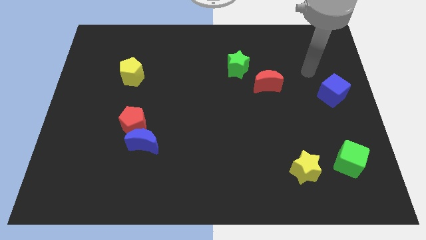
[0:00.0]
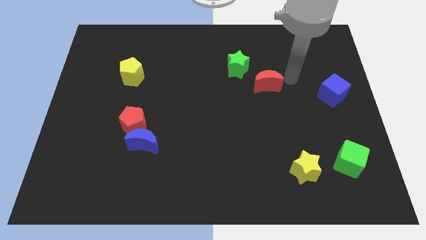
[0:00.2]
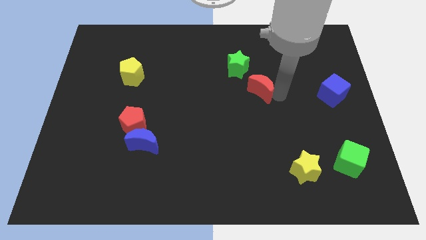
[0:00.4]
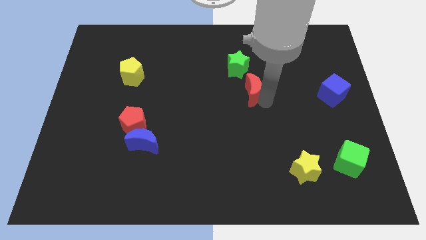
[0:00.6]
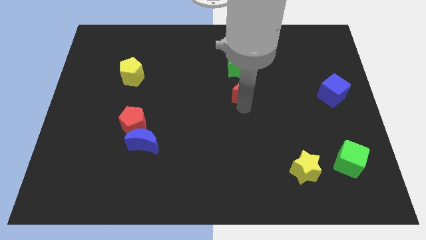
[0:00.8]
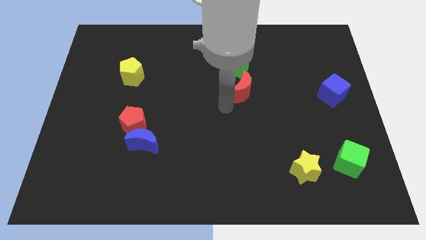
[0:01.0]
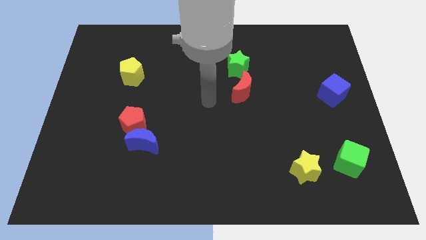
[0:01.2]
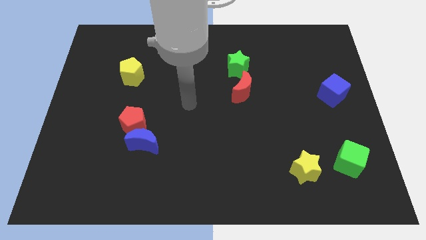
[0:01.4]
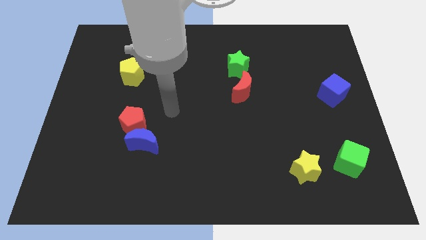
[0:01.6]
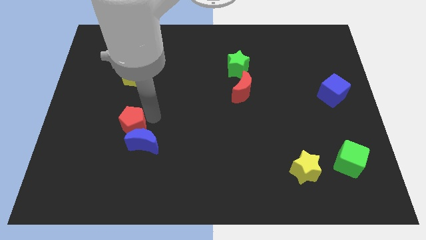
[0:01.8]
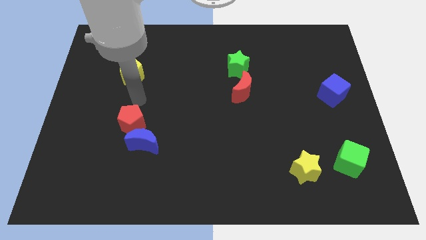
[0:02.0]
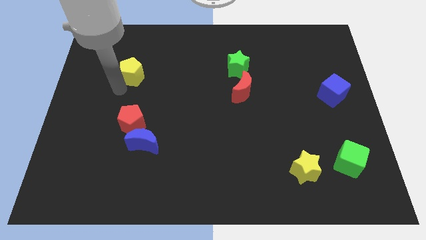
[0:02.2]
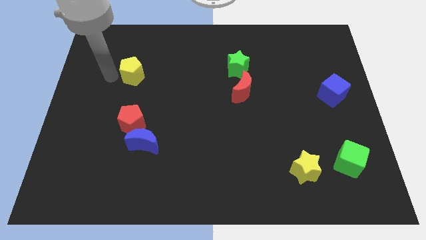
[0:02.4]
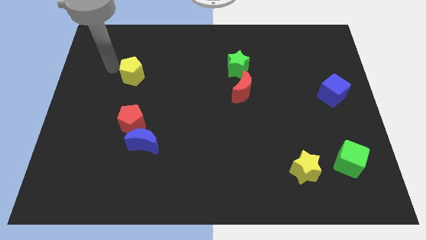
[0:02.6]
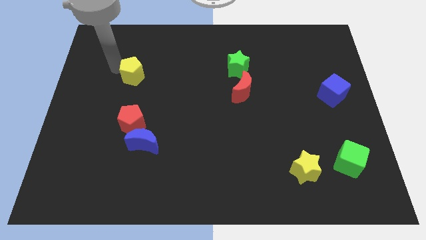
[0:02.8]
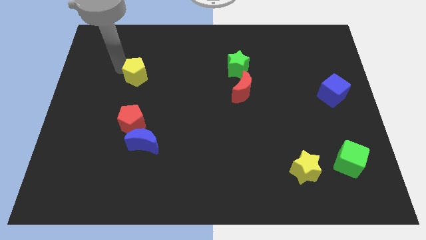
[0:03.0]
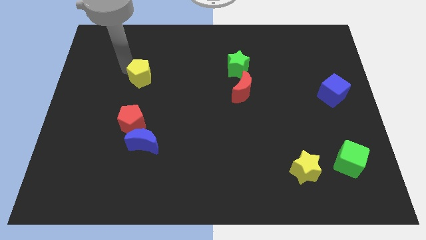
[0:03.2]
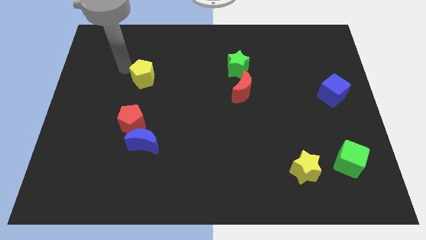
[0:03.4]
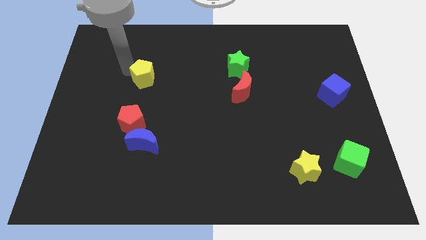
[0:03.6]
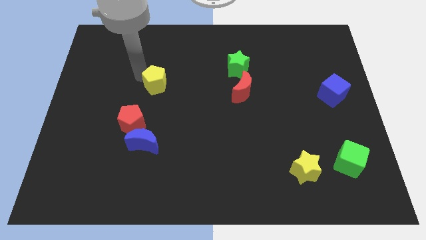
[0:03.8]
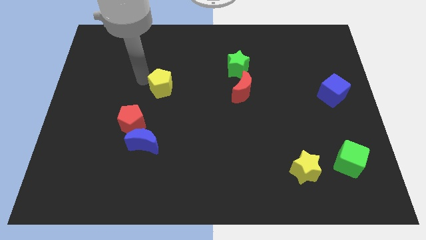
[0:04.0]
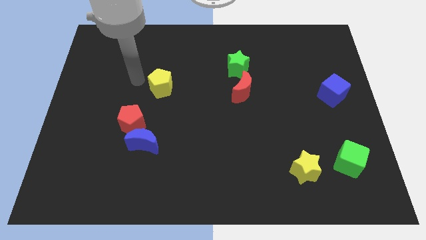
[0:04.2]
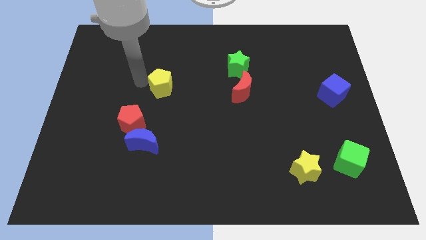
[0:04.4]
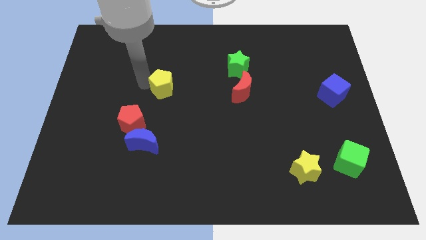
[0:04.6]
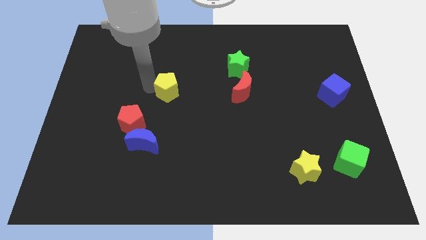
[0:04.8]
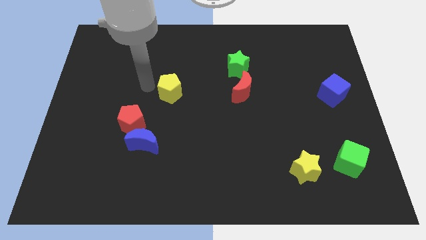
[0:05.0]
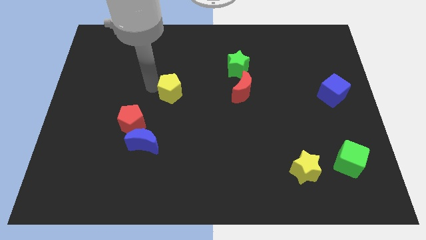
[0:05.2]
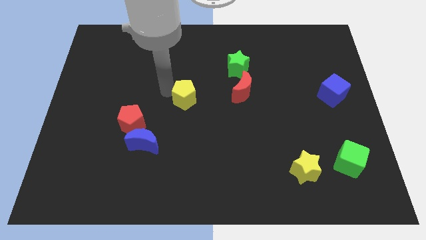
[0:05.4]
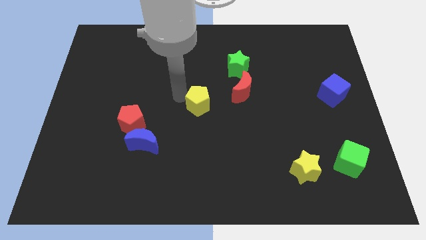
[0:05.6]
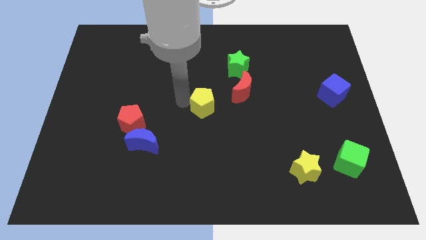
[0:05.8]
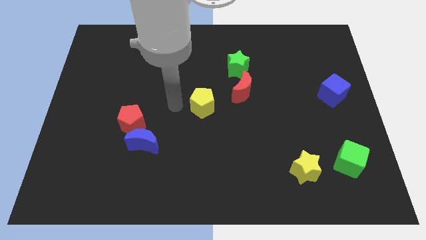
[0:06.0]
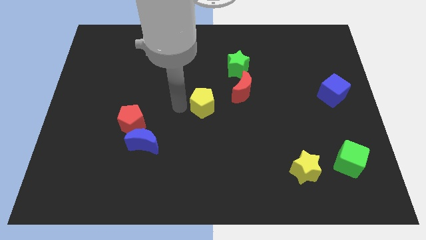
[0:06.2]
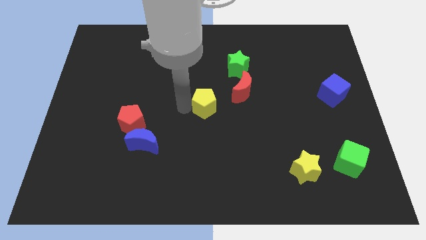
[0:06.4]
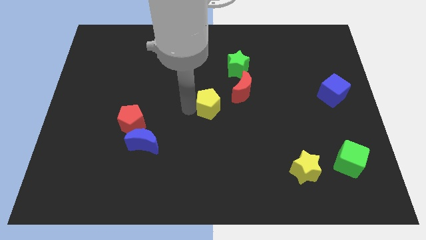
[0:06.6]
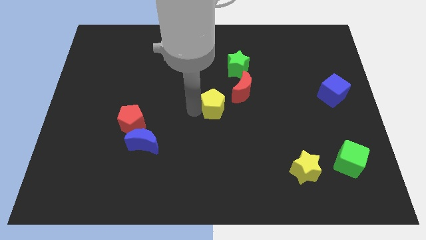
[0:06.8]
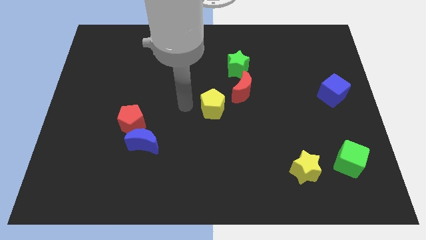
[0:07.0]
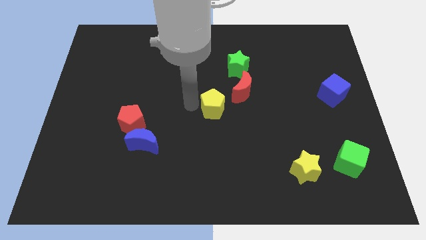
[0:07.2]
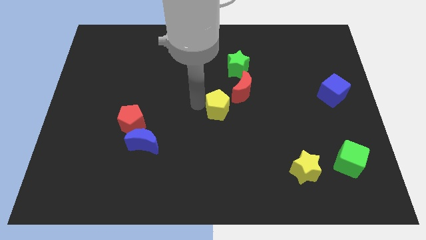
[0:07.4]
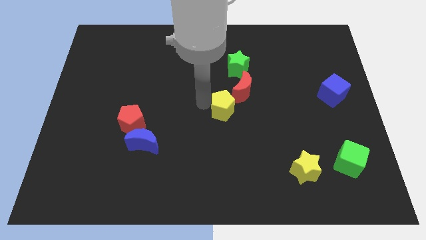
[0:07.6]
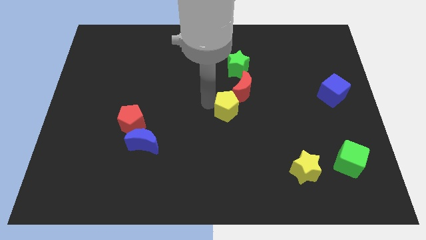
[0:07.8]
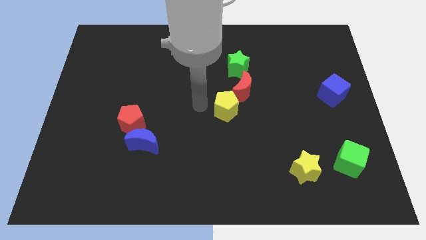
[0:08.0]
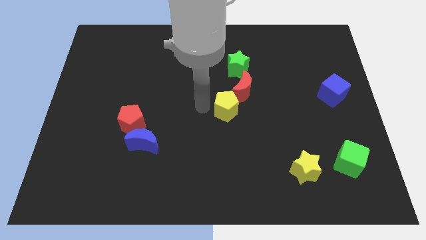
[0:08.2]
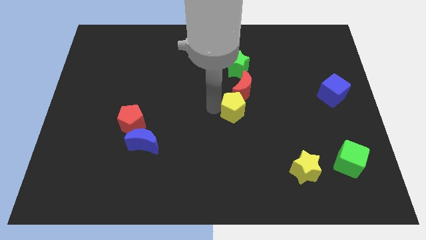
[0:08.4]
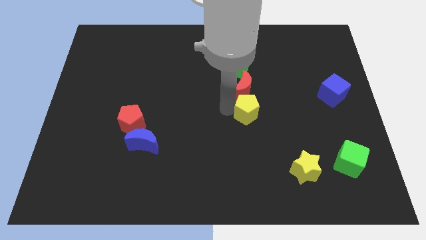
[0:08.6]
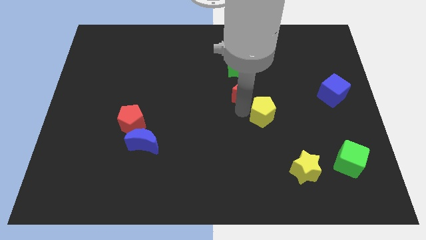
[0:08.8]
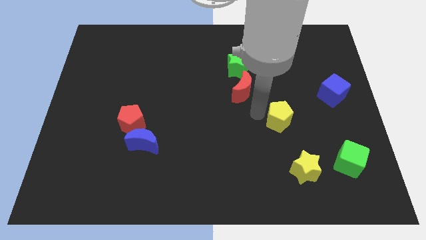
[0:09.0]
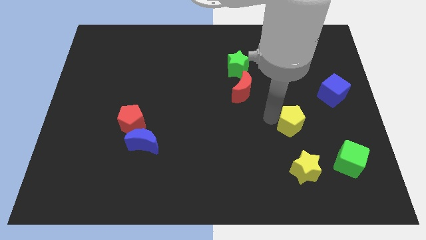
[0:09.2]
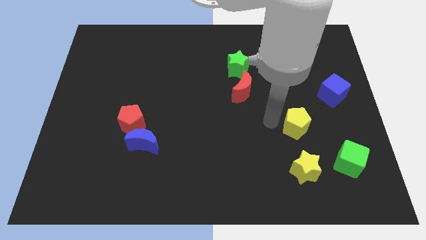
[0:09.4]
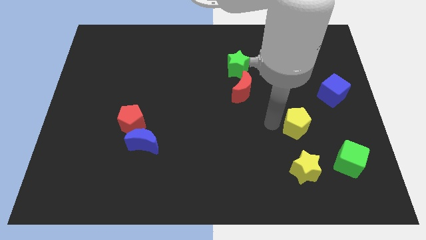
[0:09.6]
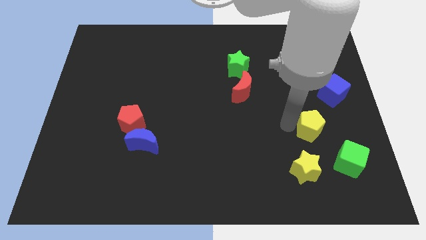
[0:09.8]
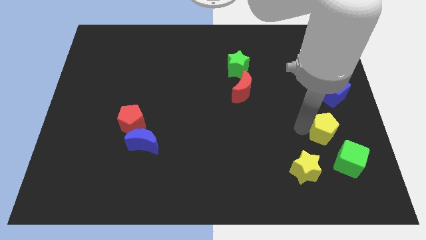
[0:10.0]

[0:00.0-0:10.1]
push the yellow pentagon below the blue cube

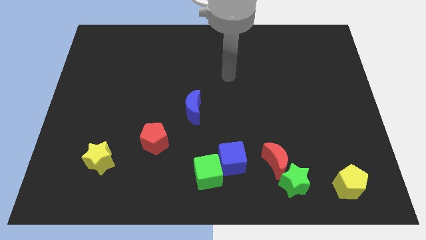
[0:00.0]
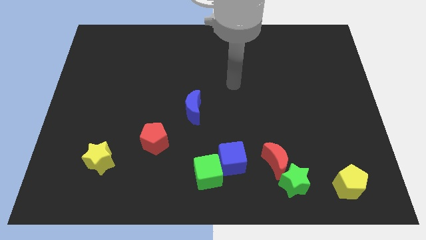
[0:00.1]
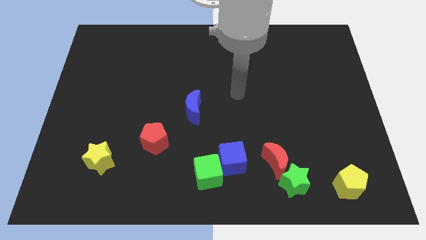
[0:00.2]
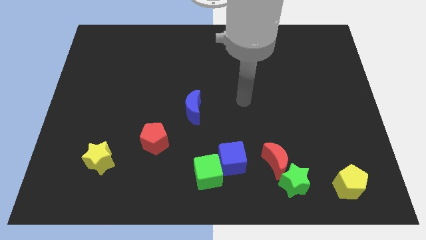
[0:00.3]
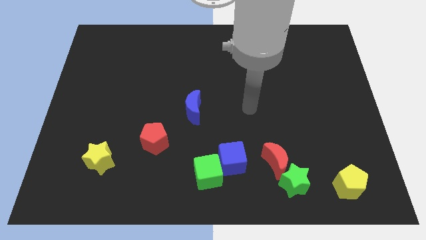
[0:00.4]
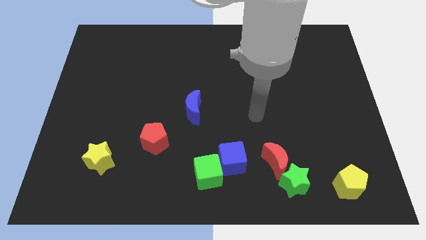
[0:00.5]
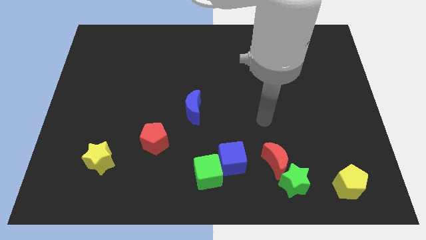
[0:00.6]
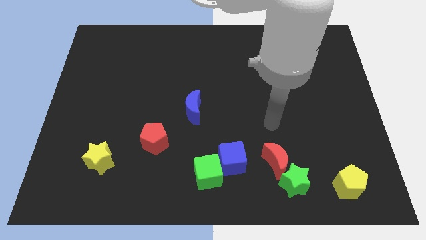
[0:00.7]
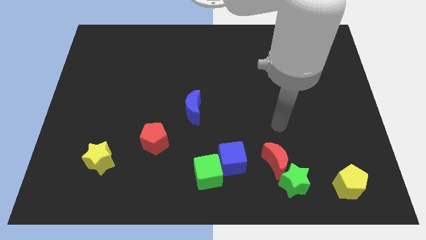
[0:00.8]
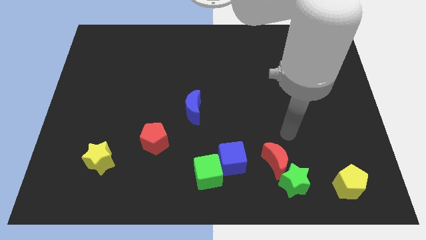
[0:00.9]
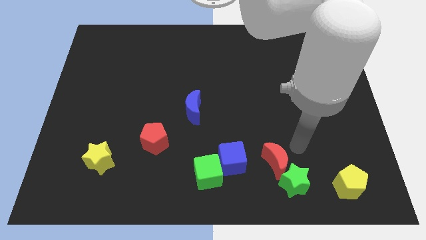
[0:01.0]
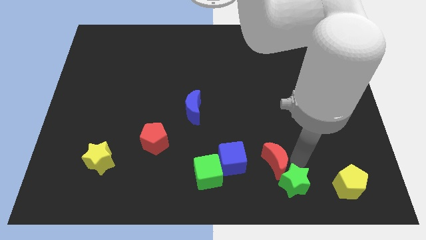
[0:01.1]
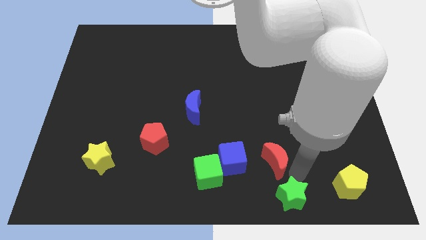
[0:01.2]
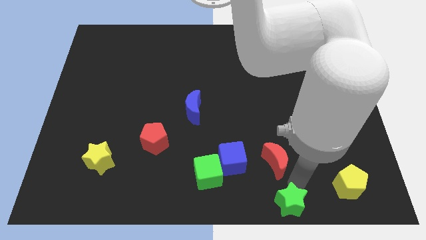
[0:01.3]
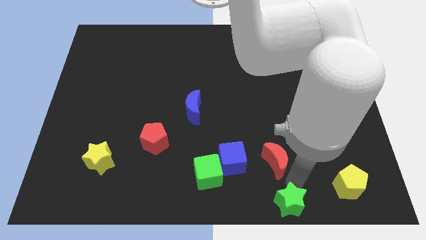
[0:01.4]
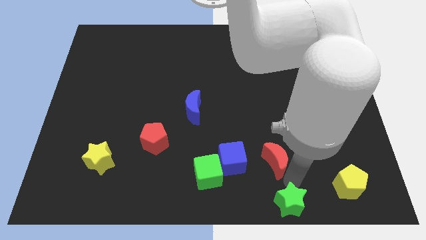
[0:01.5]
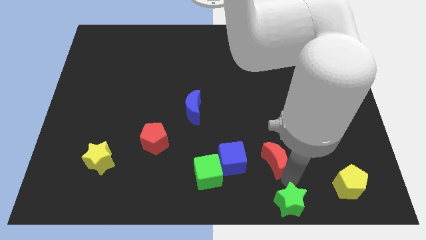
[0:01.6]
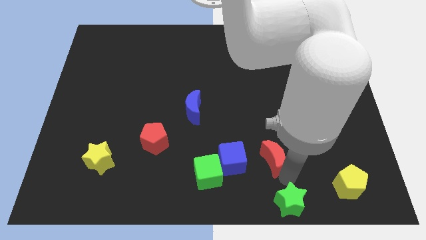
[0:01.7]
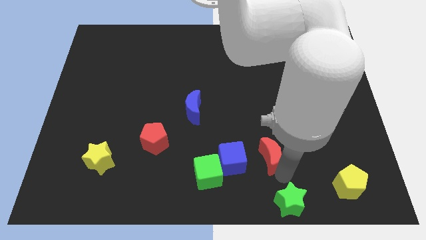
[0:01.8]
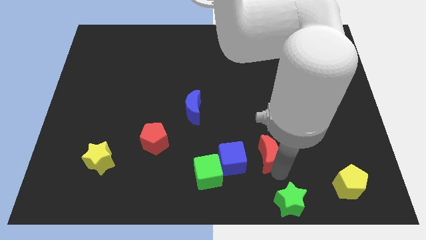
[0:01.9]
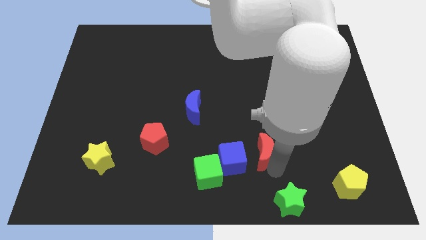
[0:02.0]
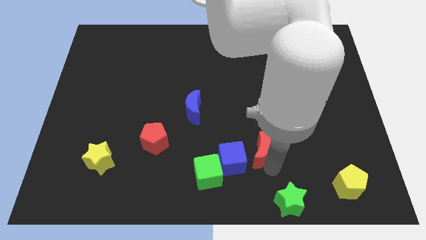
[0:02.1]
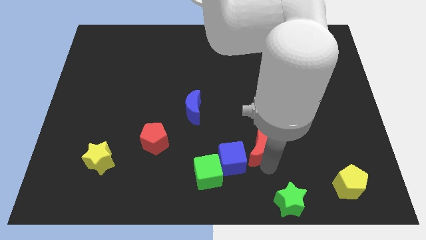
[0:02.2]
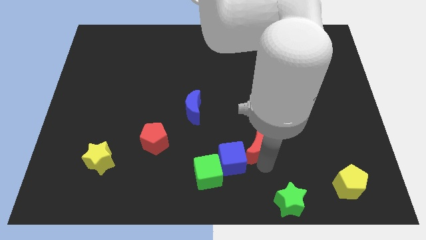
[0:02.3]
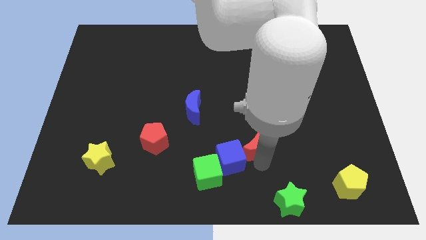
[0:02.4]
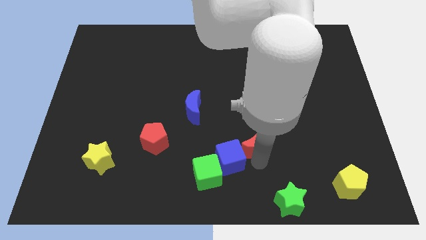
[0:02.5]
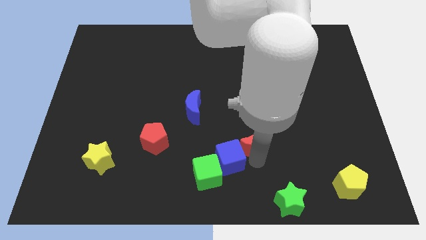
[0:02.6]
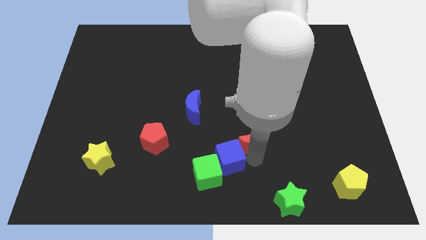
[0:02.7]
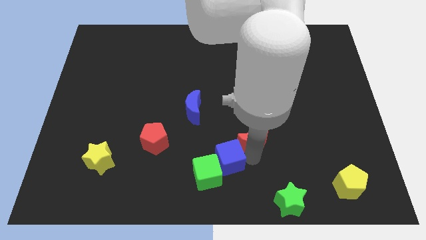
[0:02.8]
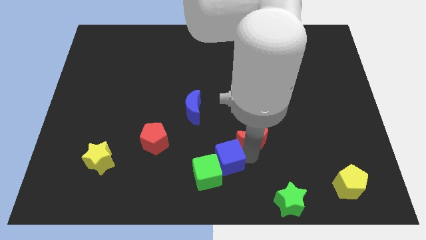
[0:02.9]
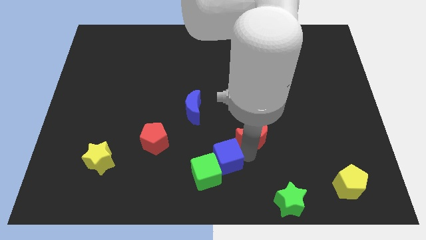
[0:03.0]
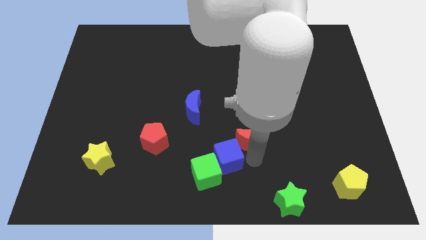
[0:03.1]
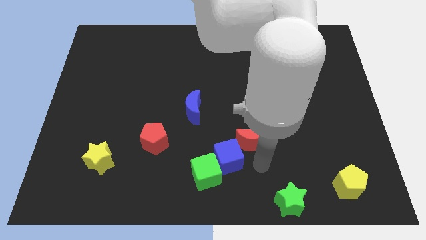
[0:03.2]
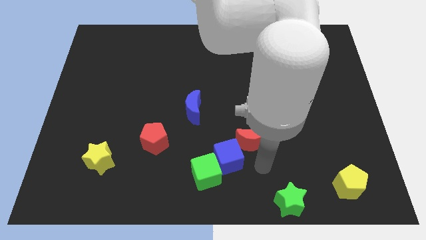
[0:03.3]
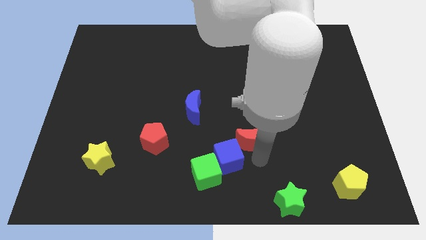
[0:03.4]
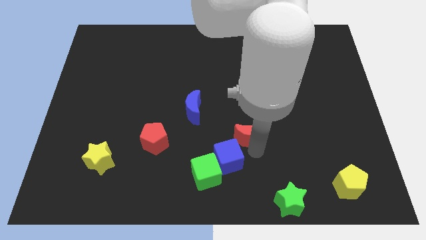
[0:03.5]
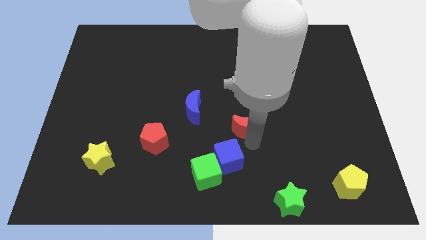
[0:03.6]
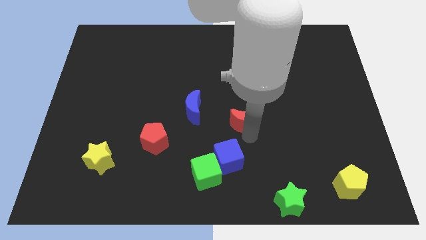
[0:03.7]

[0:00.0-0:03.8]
slide the red moon just right of the blue moon
